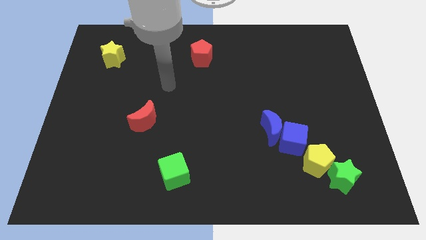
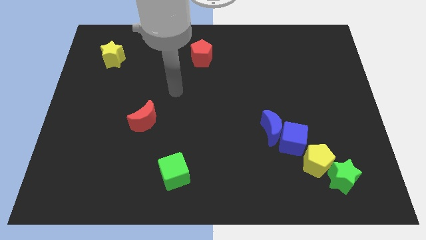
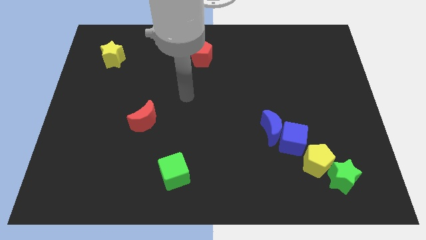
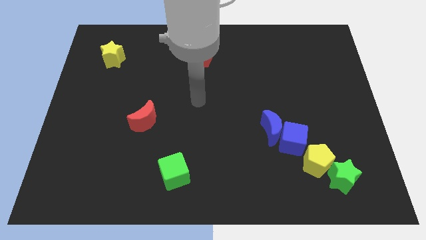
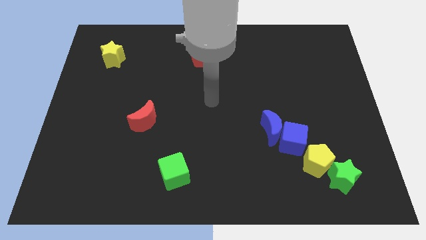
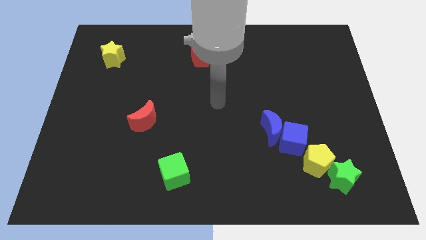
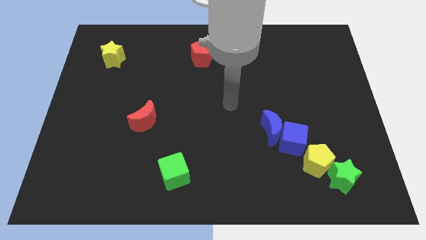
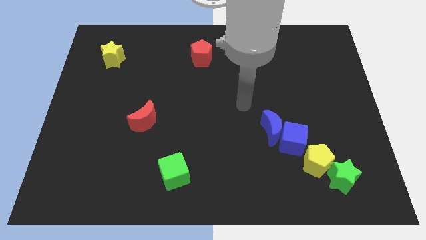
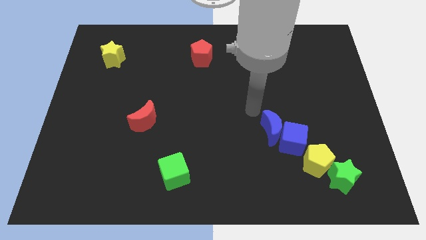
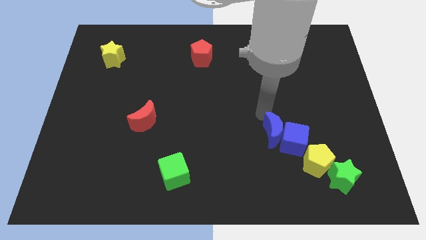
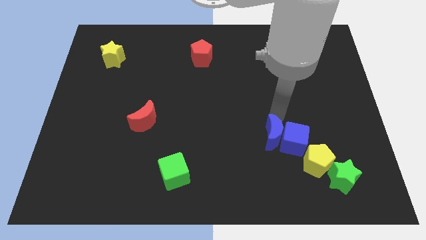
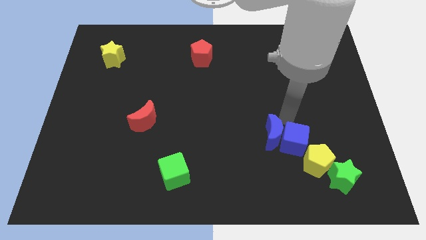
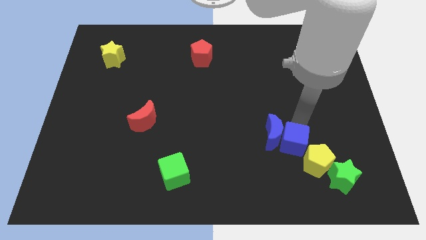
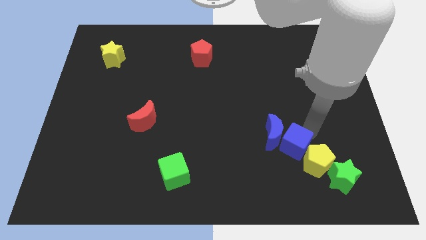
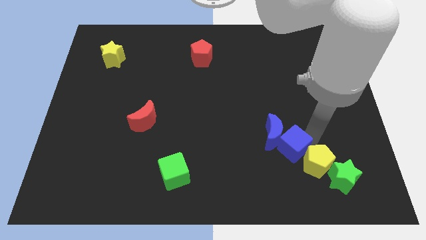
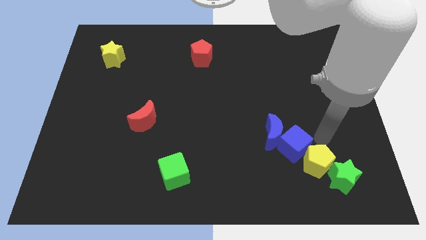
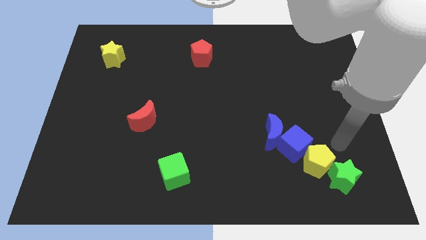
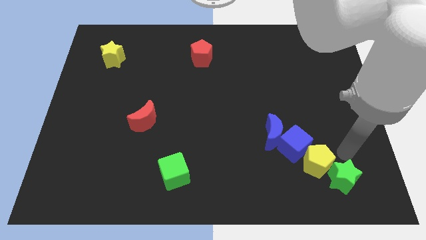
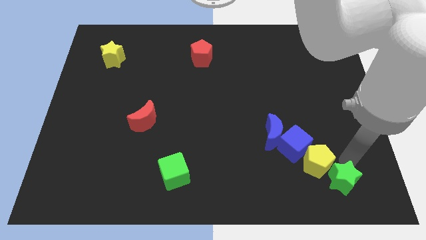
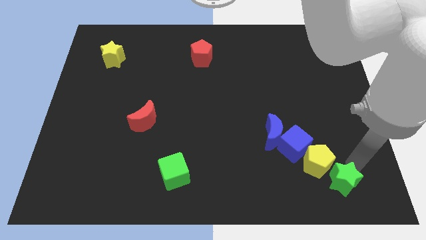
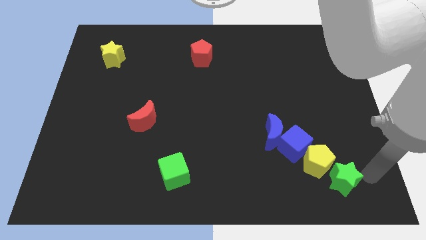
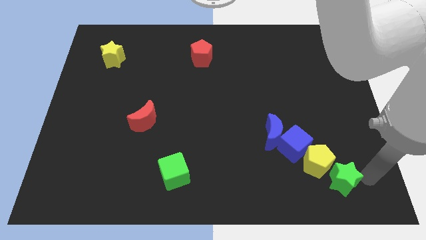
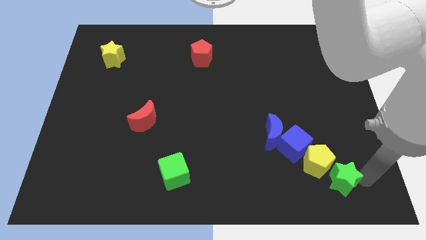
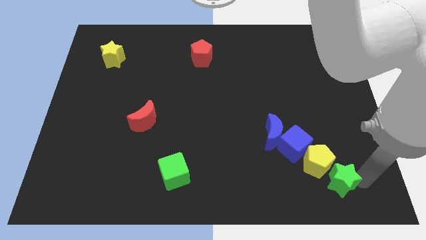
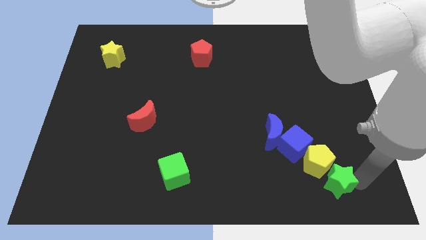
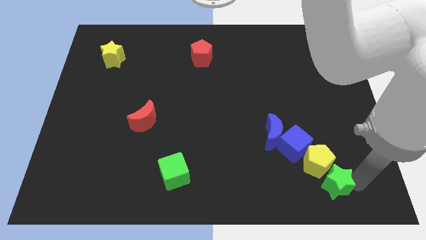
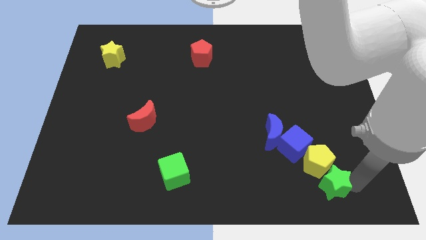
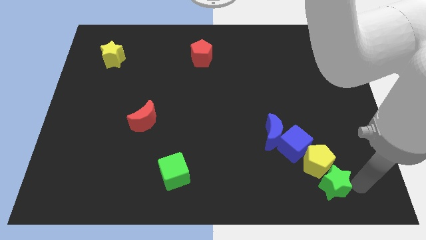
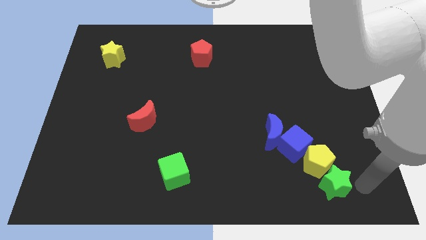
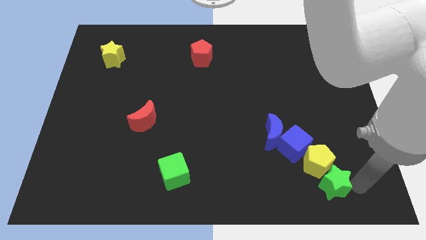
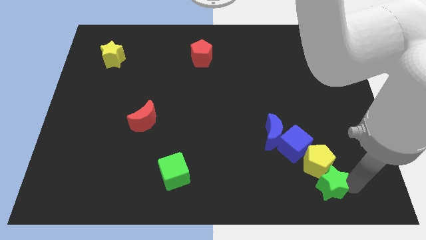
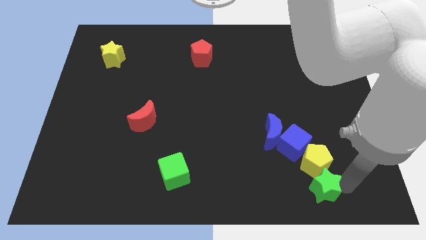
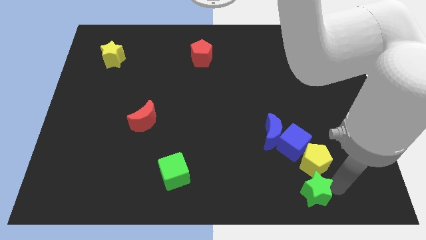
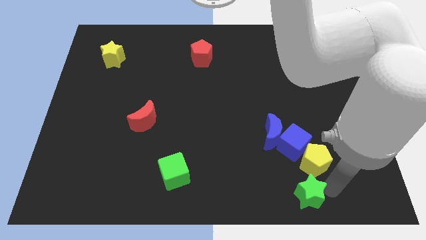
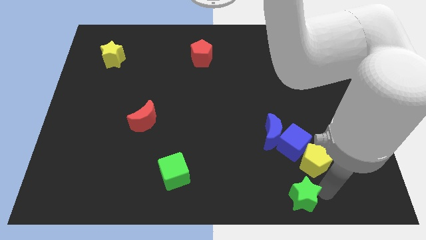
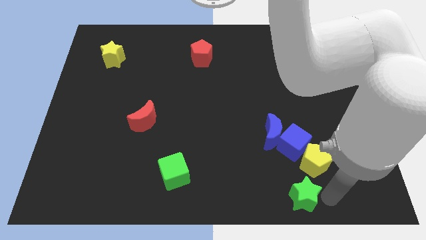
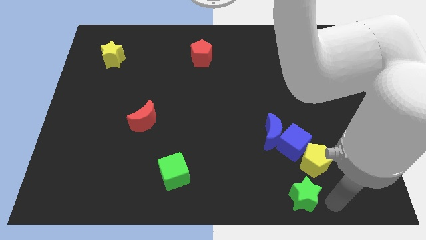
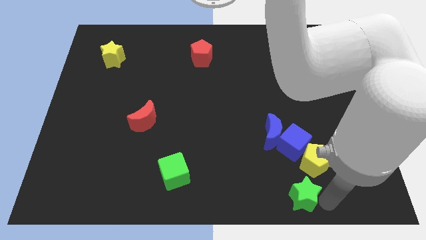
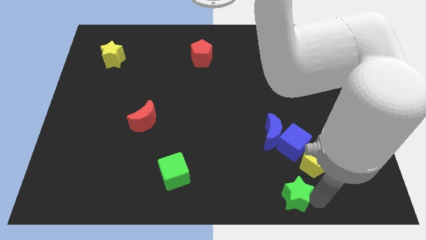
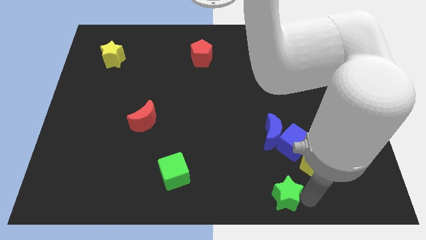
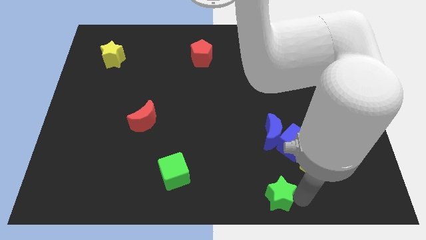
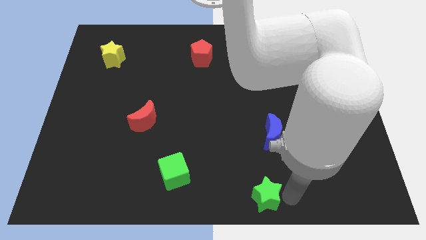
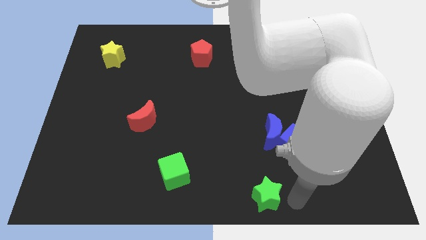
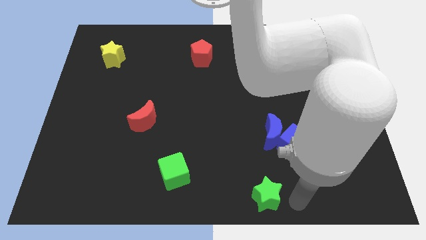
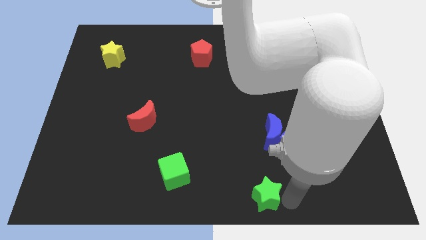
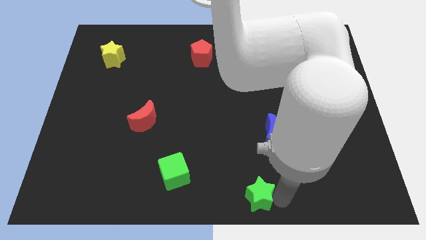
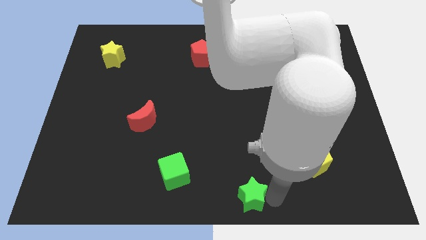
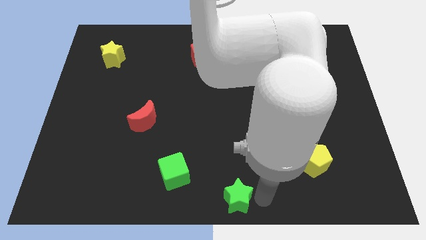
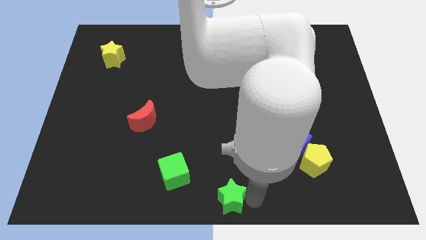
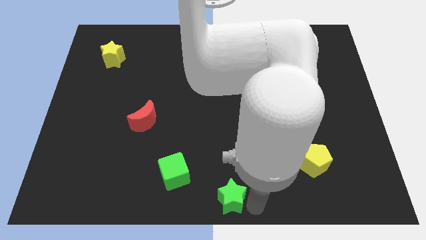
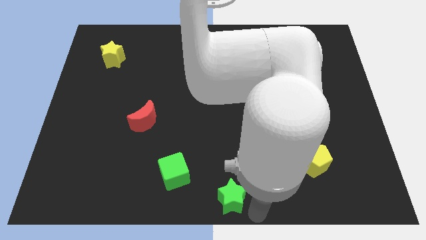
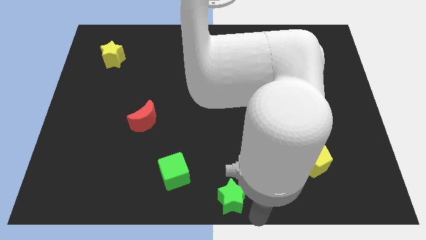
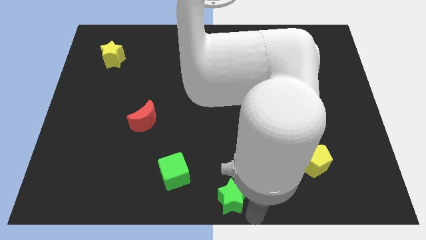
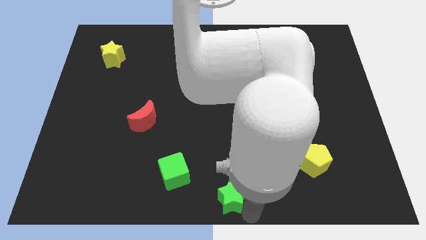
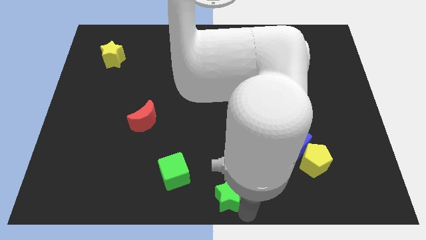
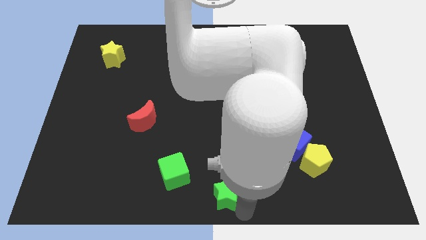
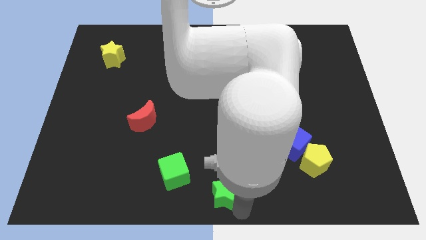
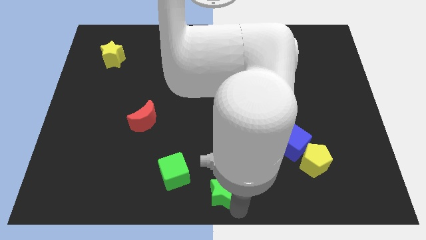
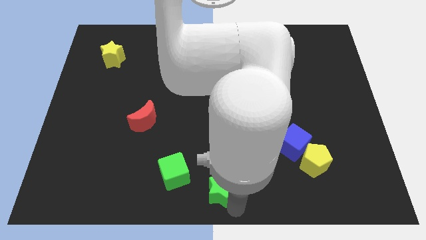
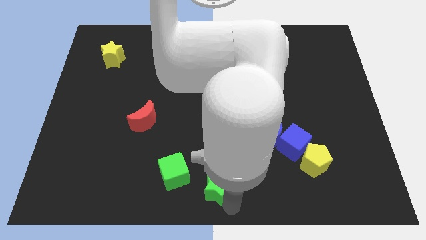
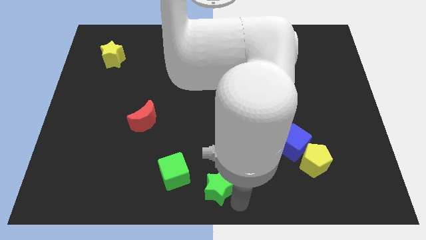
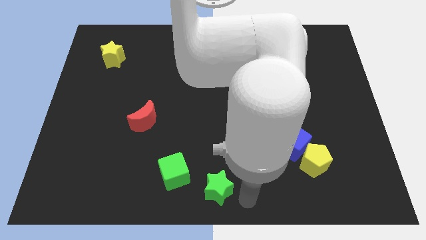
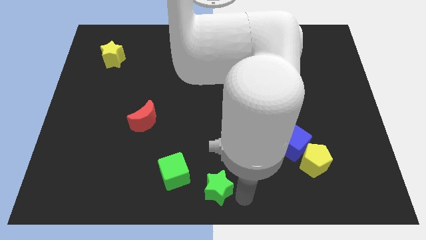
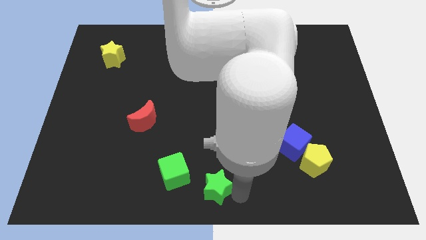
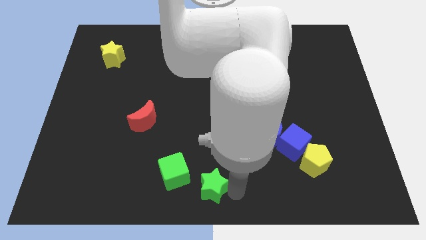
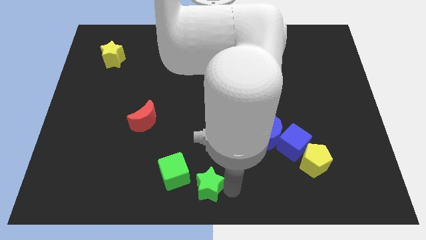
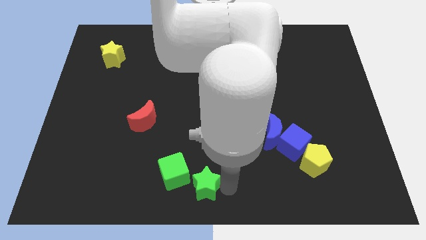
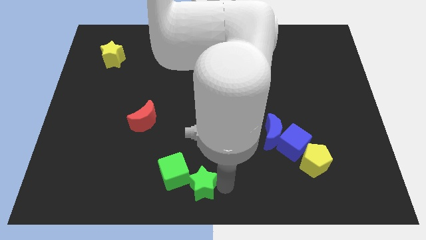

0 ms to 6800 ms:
slide the green star towards the green cube

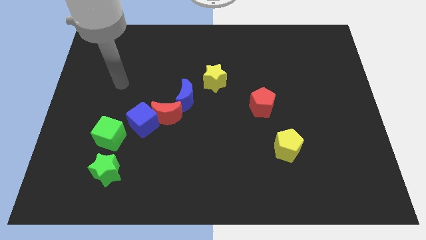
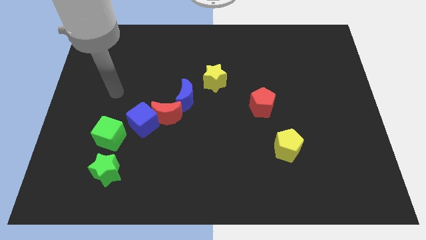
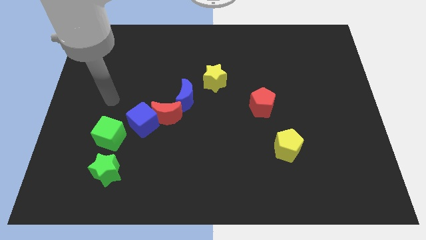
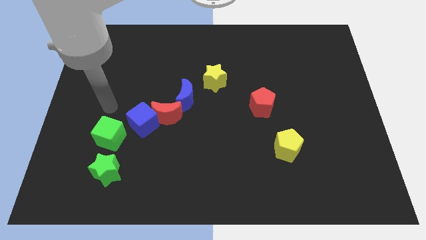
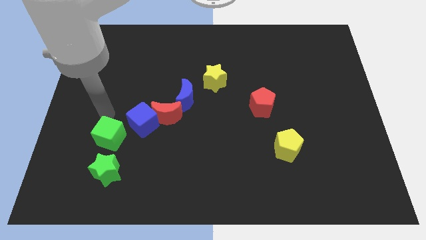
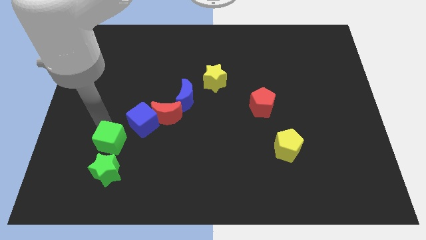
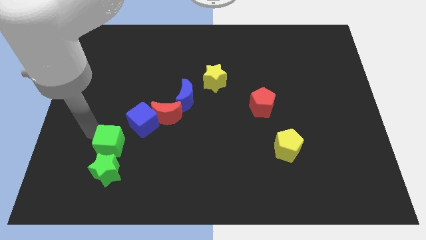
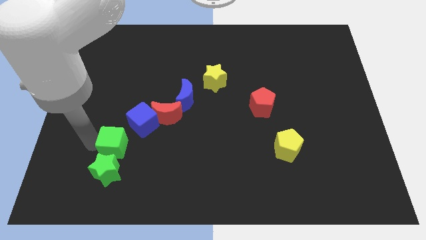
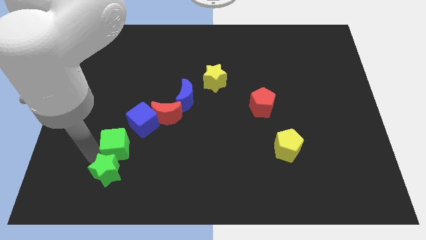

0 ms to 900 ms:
put the green star close to the green cube
